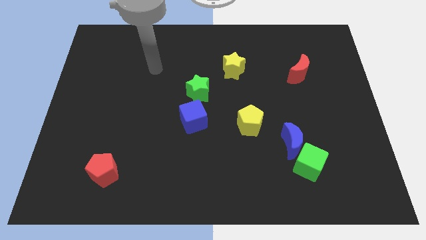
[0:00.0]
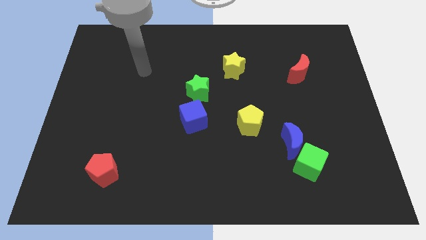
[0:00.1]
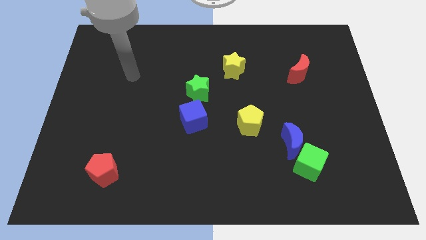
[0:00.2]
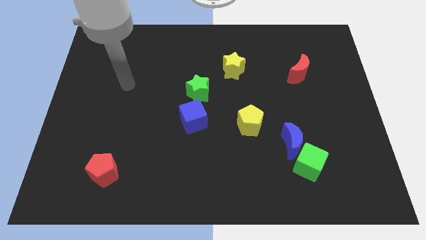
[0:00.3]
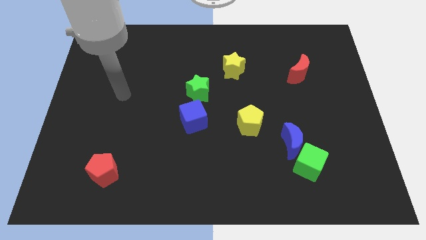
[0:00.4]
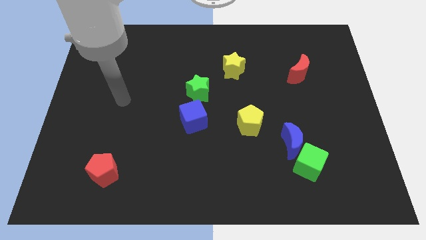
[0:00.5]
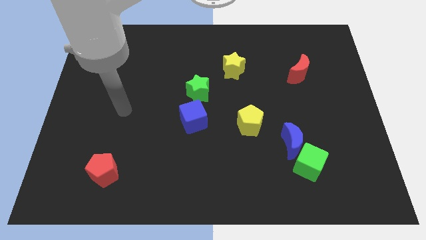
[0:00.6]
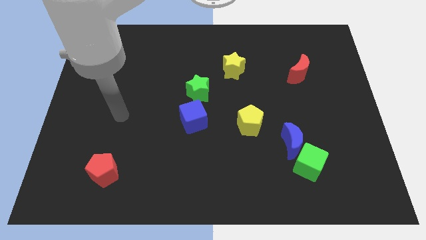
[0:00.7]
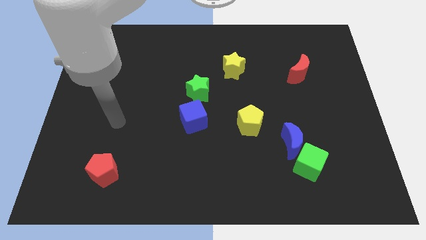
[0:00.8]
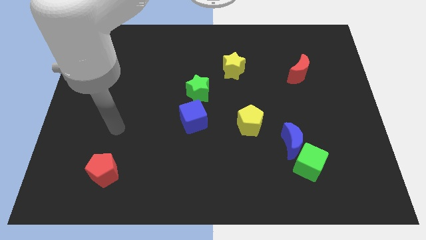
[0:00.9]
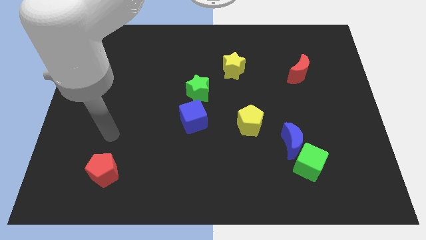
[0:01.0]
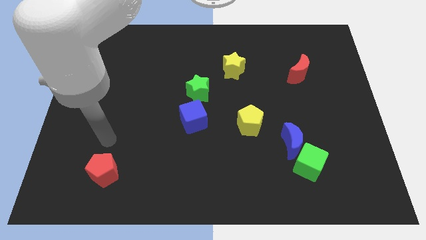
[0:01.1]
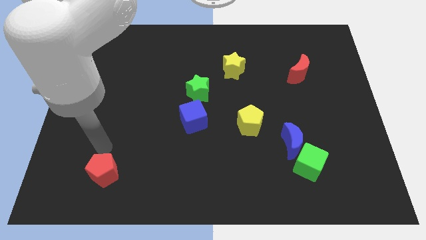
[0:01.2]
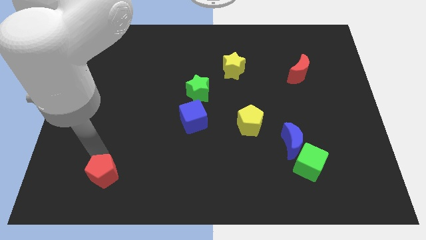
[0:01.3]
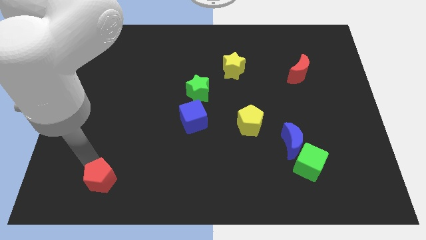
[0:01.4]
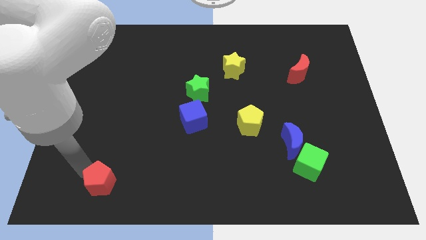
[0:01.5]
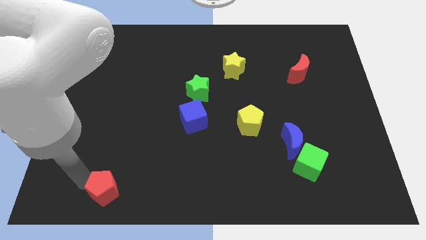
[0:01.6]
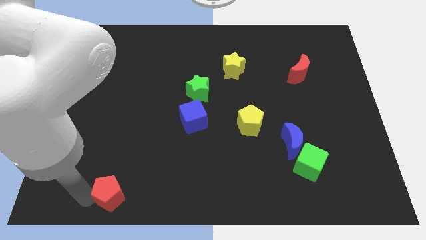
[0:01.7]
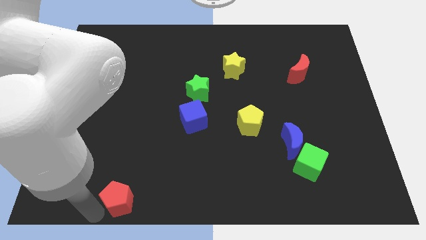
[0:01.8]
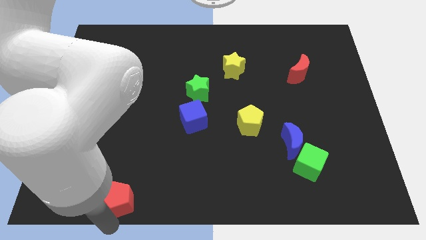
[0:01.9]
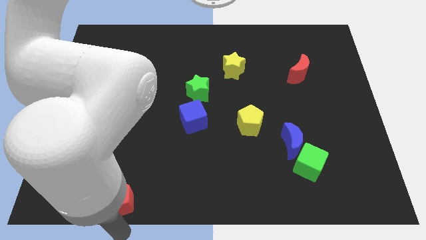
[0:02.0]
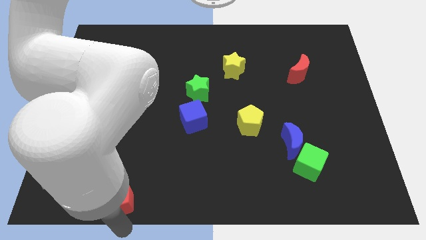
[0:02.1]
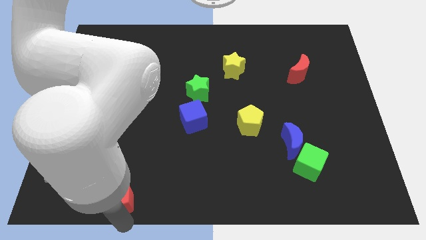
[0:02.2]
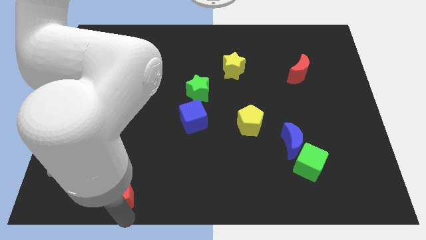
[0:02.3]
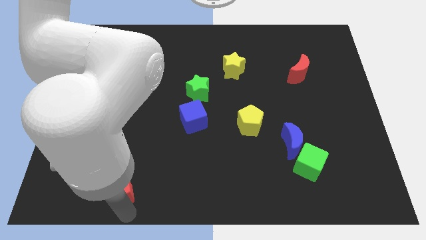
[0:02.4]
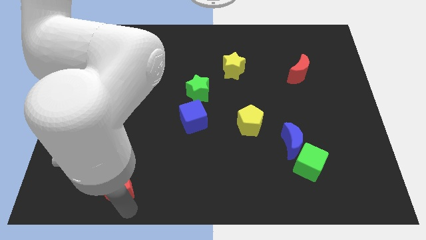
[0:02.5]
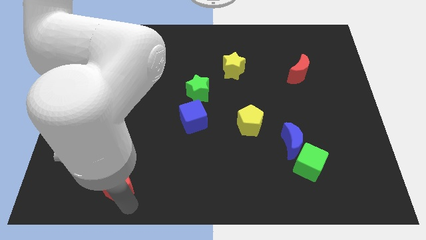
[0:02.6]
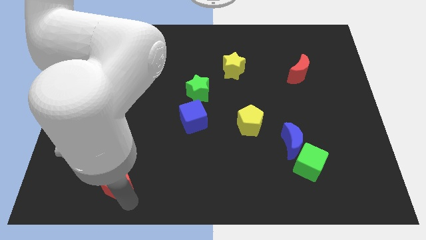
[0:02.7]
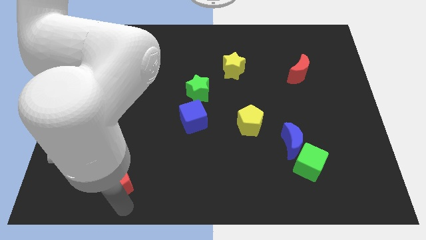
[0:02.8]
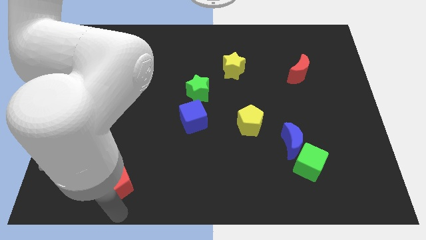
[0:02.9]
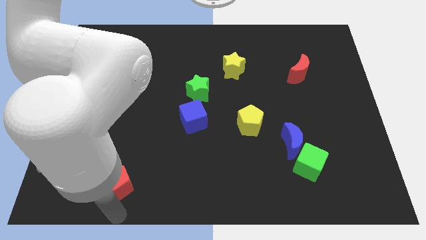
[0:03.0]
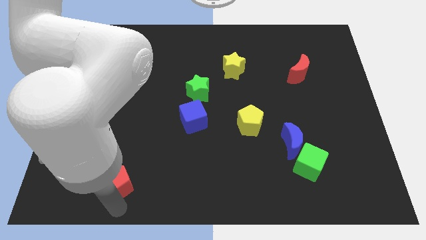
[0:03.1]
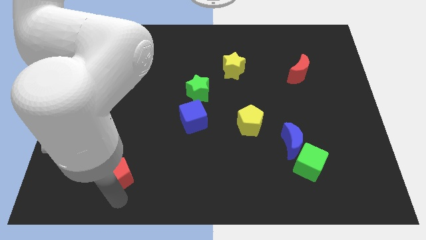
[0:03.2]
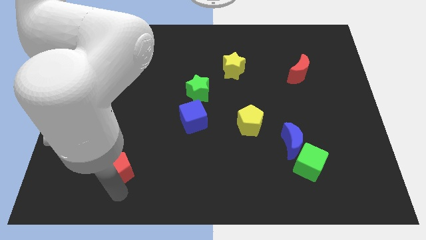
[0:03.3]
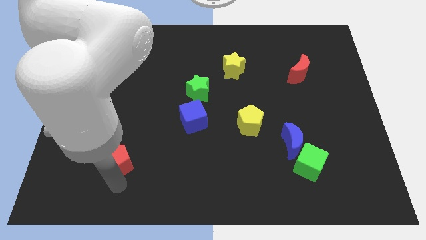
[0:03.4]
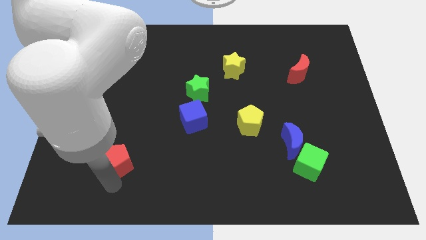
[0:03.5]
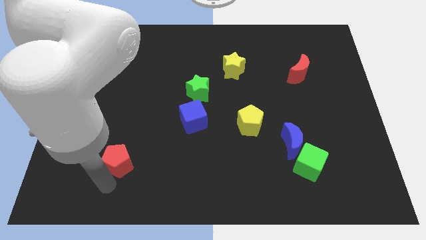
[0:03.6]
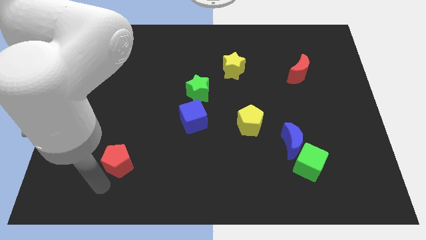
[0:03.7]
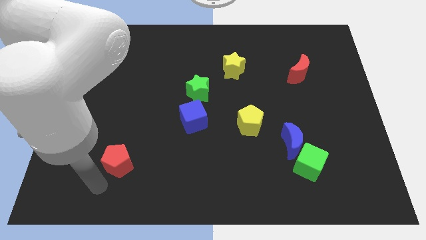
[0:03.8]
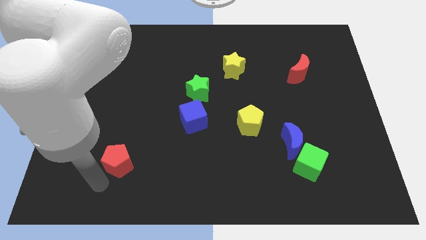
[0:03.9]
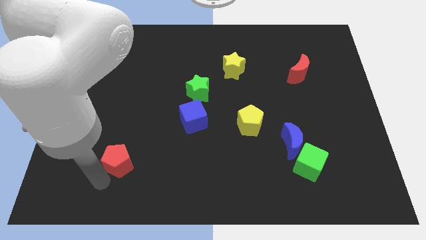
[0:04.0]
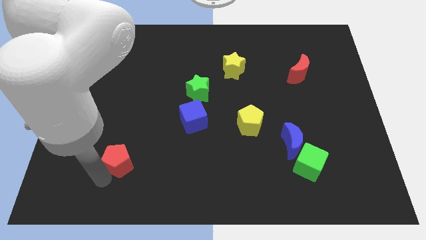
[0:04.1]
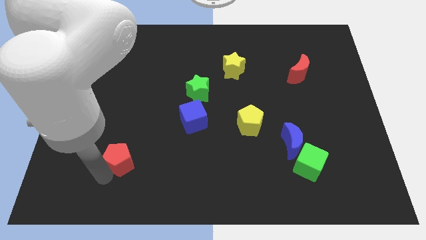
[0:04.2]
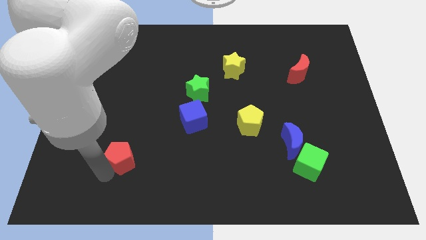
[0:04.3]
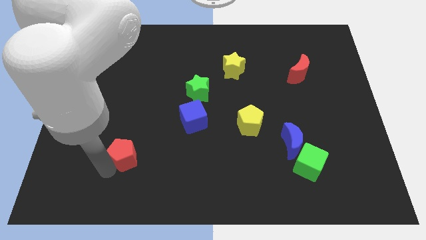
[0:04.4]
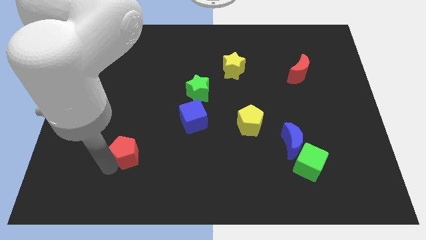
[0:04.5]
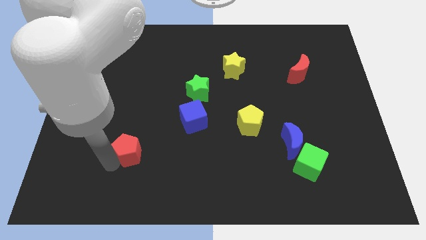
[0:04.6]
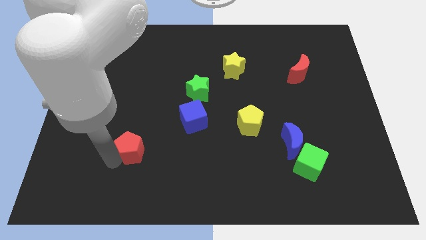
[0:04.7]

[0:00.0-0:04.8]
push the red pentagon diagonally up and right a little

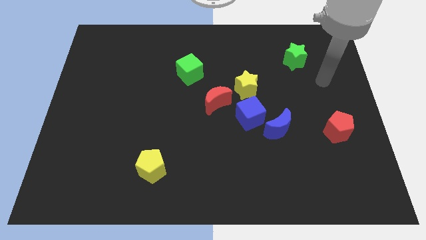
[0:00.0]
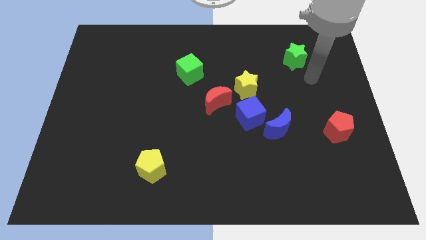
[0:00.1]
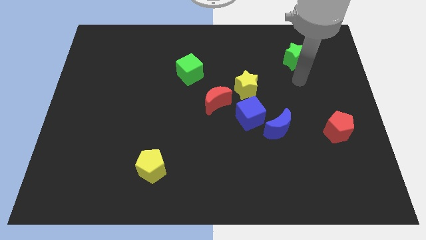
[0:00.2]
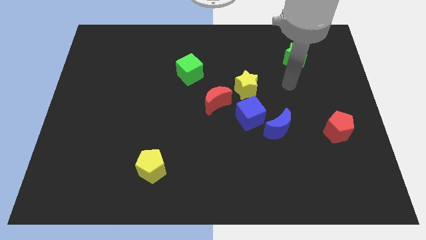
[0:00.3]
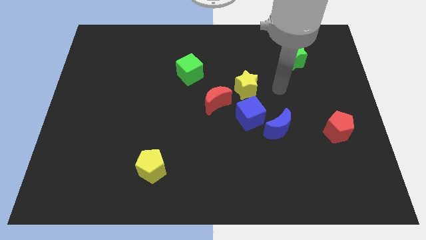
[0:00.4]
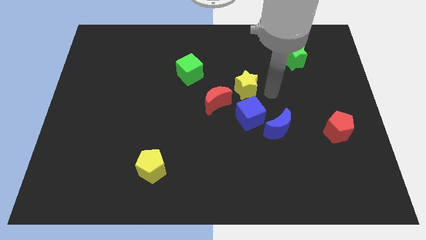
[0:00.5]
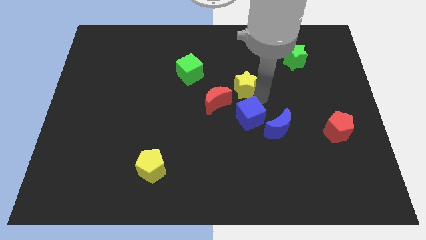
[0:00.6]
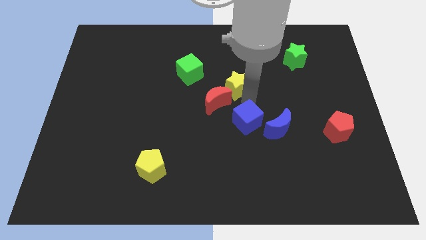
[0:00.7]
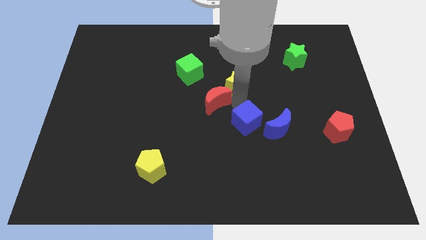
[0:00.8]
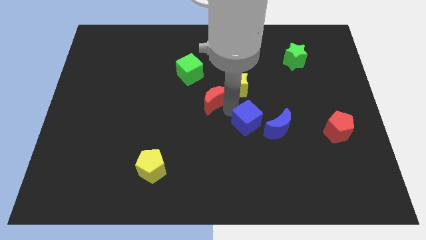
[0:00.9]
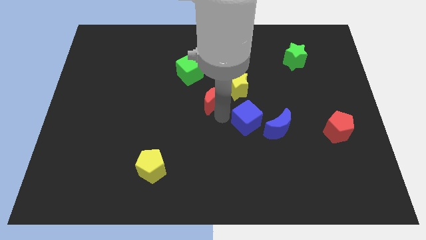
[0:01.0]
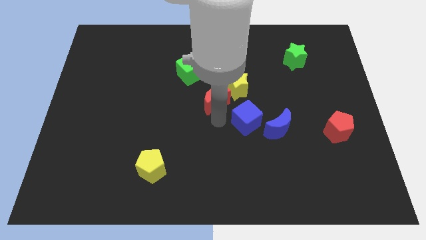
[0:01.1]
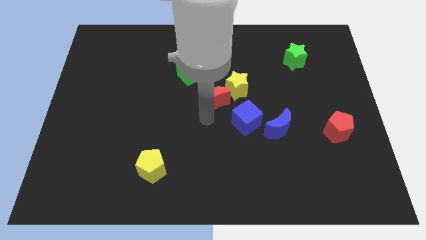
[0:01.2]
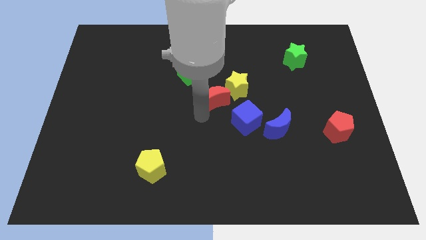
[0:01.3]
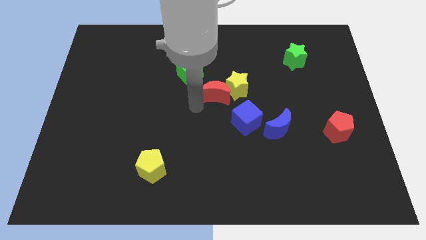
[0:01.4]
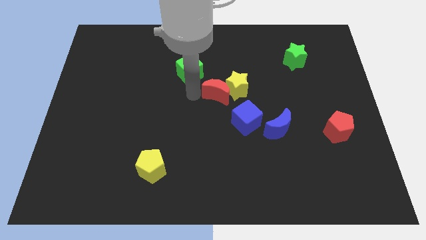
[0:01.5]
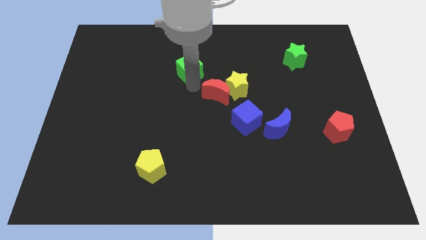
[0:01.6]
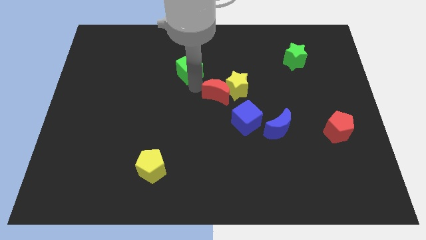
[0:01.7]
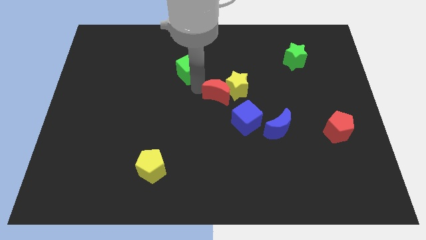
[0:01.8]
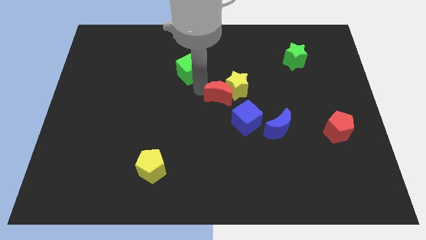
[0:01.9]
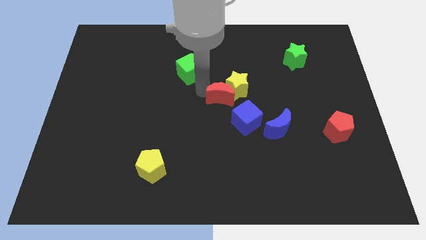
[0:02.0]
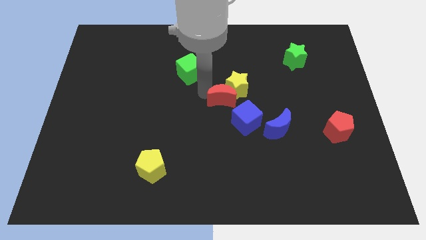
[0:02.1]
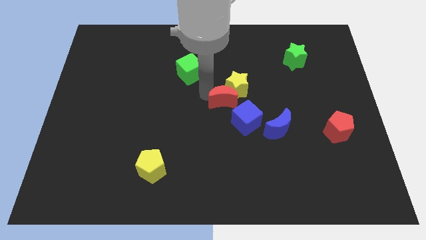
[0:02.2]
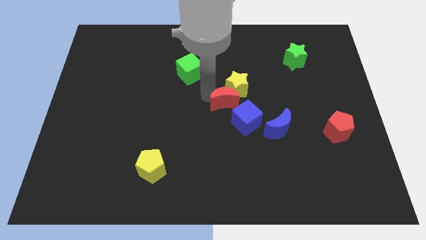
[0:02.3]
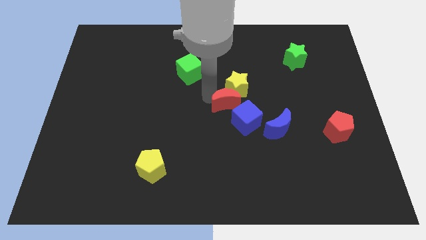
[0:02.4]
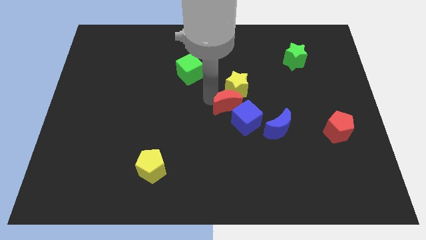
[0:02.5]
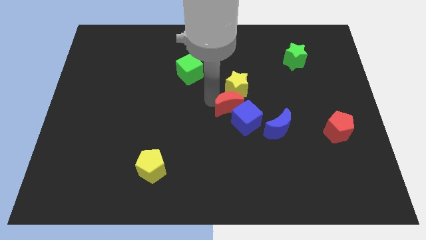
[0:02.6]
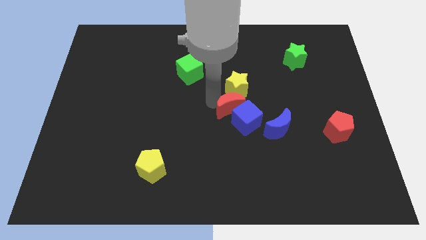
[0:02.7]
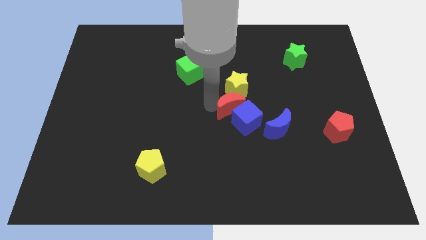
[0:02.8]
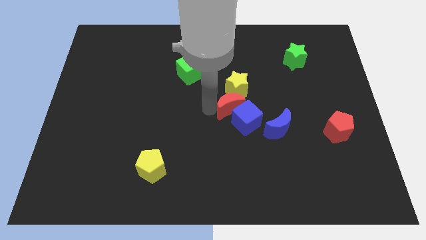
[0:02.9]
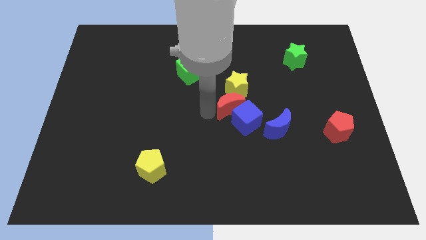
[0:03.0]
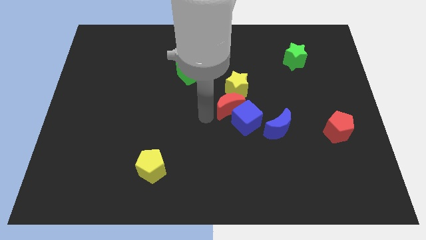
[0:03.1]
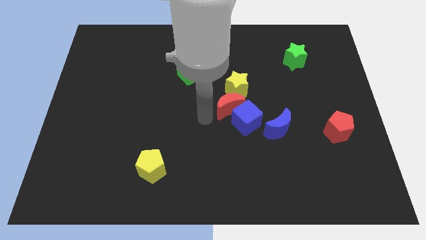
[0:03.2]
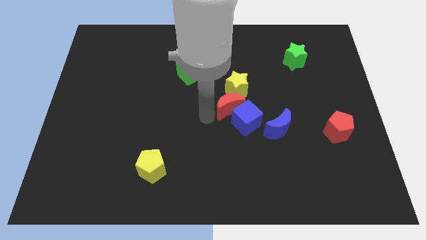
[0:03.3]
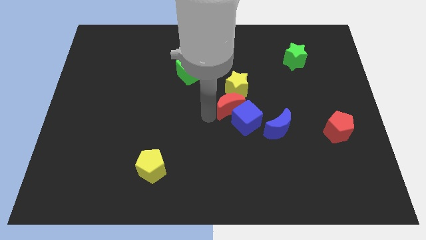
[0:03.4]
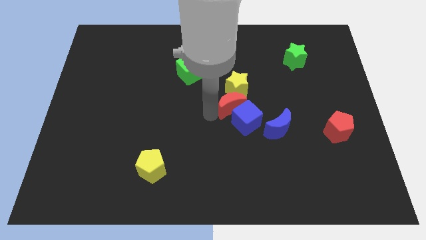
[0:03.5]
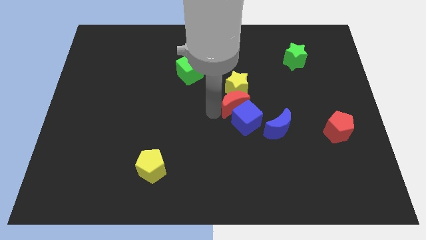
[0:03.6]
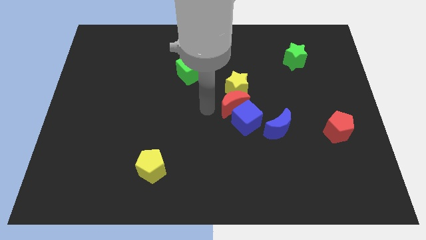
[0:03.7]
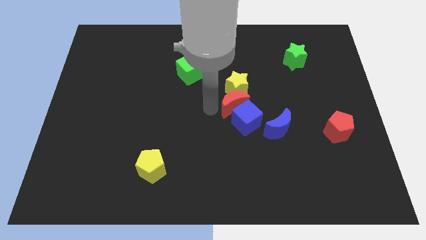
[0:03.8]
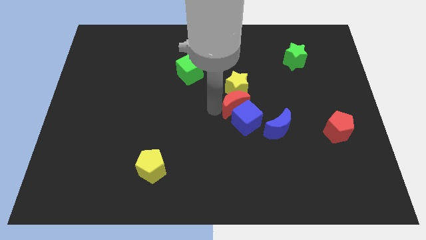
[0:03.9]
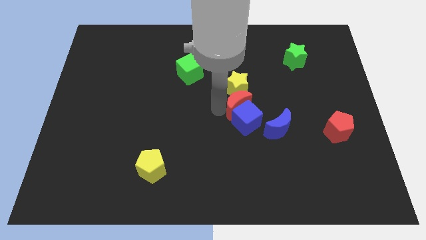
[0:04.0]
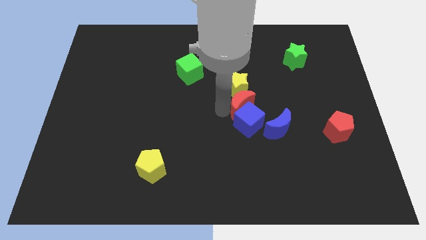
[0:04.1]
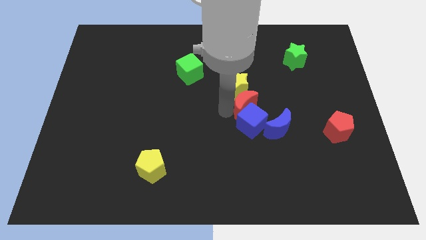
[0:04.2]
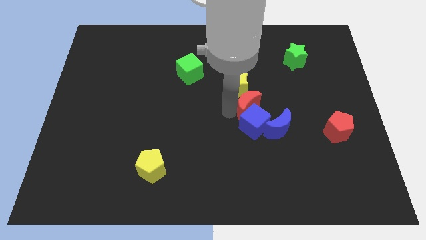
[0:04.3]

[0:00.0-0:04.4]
slightly push the red moon right
